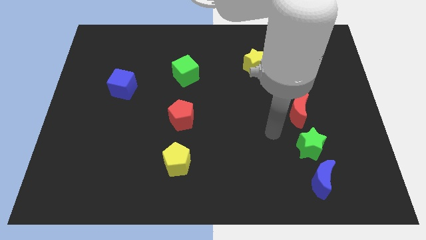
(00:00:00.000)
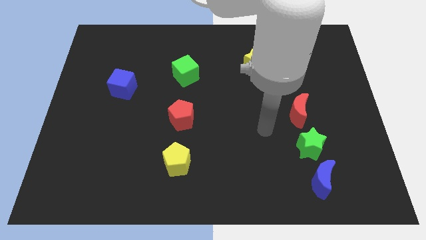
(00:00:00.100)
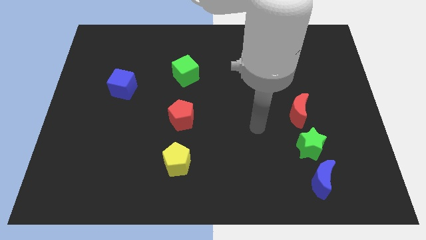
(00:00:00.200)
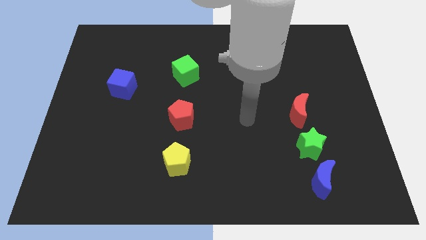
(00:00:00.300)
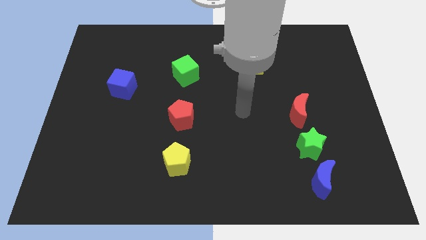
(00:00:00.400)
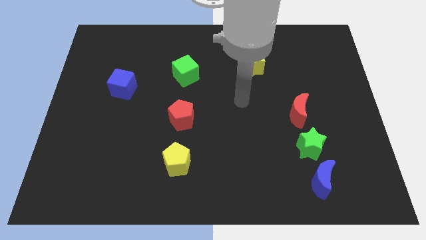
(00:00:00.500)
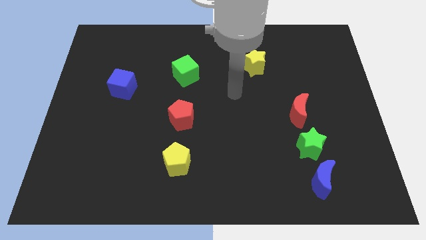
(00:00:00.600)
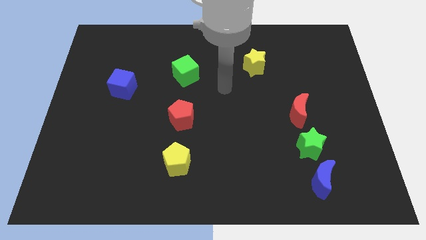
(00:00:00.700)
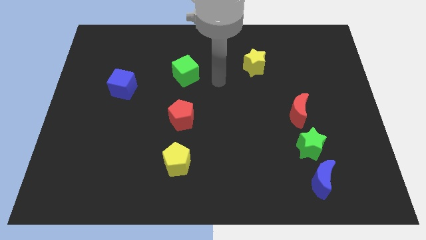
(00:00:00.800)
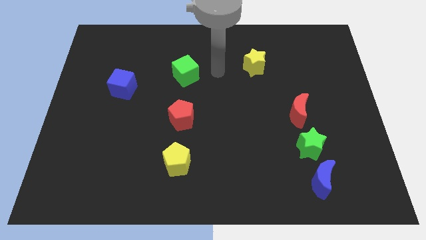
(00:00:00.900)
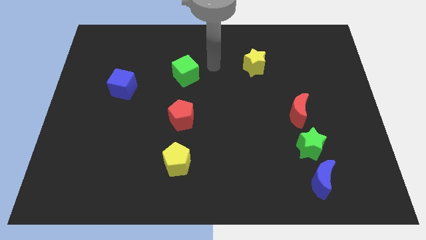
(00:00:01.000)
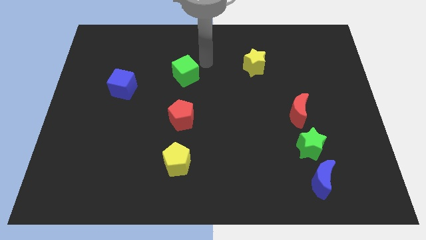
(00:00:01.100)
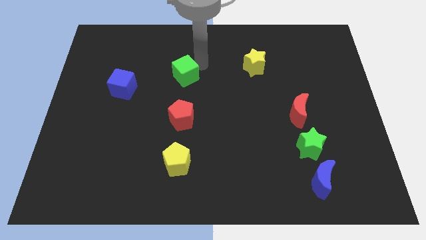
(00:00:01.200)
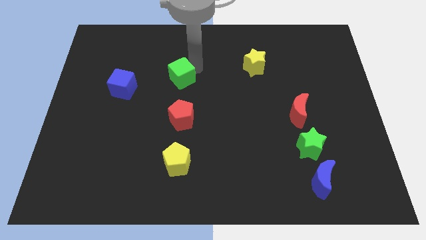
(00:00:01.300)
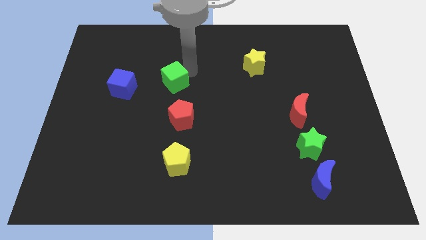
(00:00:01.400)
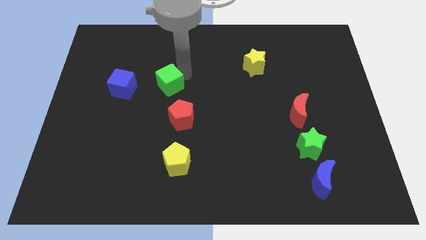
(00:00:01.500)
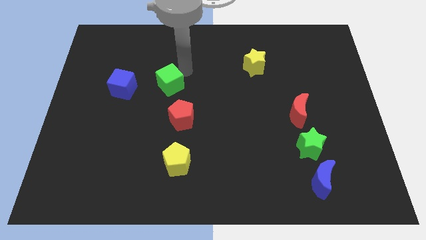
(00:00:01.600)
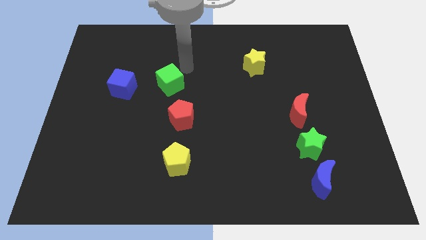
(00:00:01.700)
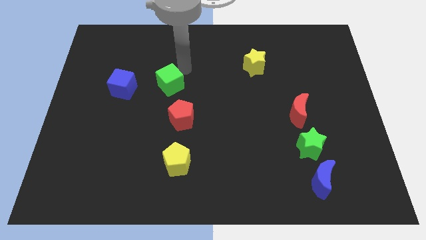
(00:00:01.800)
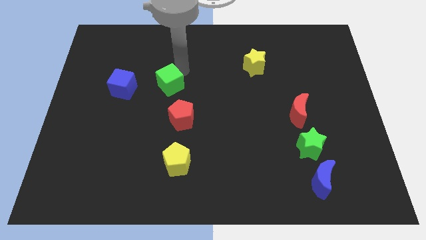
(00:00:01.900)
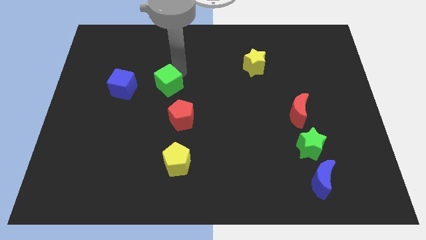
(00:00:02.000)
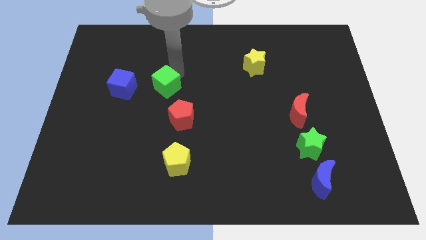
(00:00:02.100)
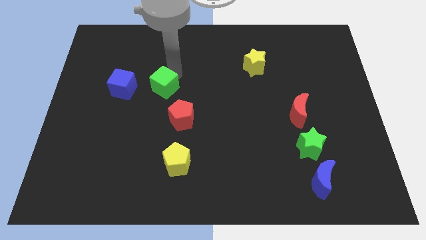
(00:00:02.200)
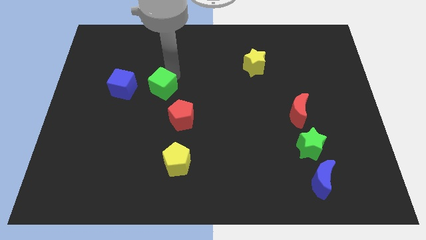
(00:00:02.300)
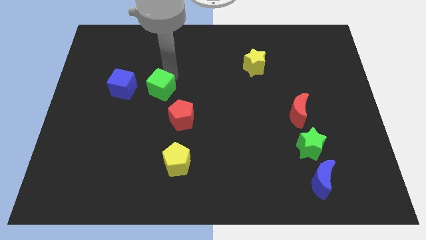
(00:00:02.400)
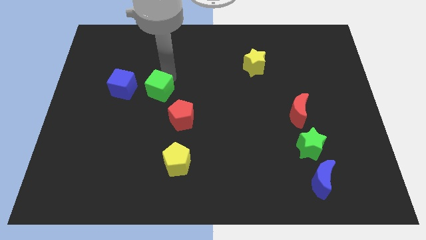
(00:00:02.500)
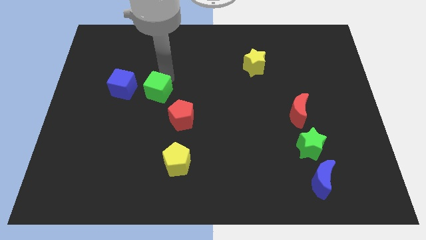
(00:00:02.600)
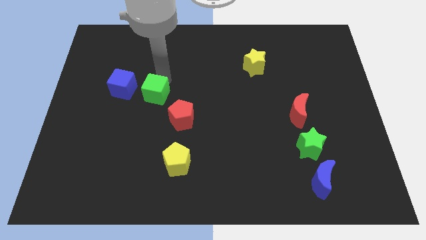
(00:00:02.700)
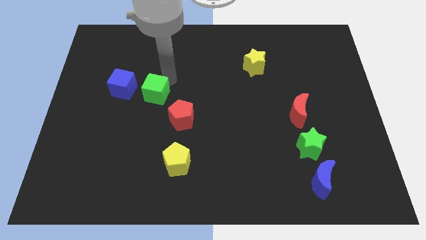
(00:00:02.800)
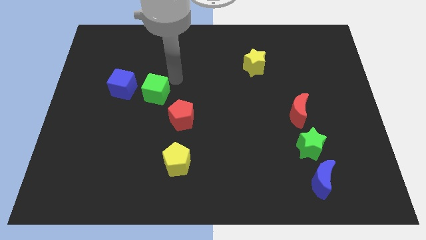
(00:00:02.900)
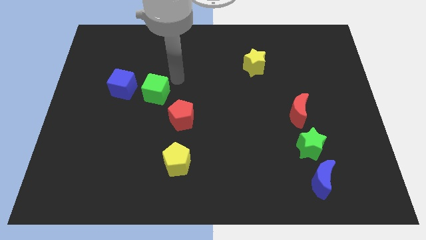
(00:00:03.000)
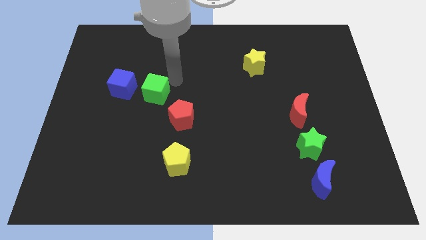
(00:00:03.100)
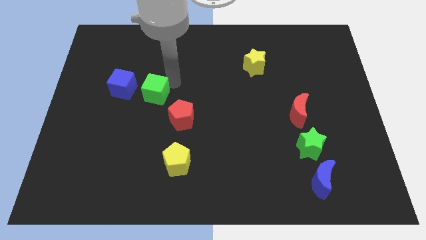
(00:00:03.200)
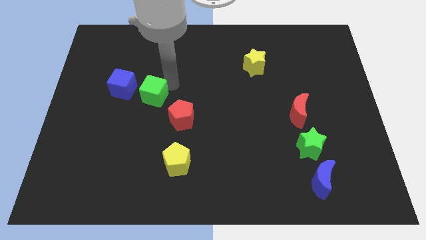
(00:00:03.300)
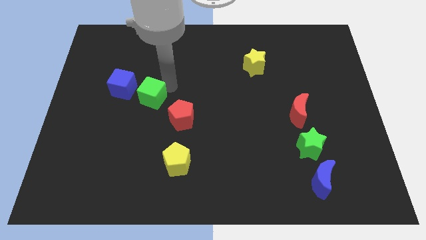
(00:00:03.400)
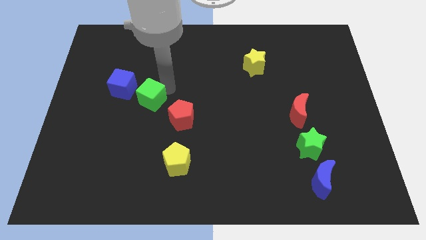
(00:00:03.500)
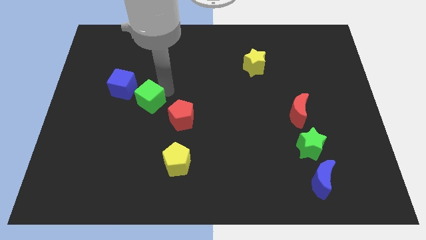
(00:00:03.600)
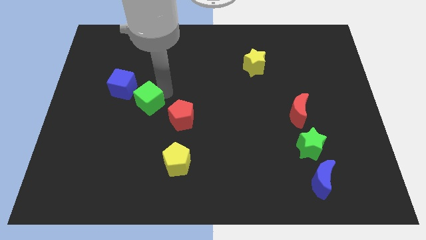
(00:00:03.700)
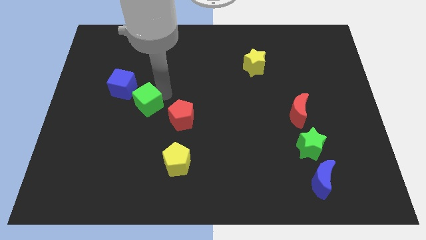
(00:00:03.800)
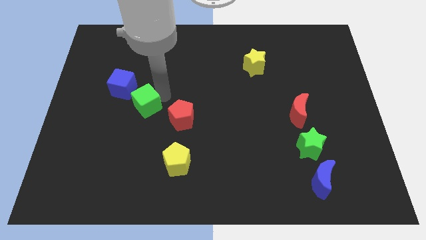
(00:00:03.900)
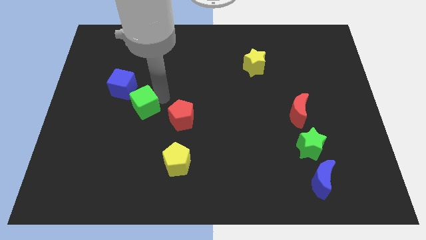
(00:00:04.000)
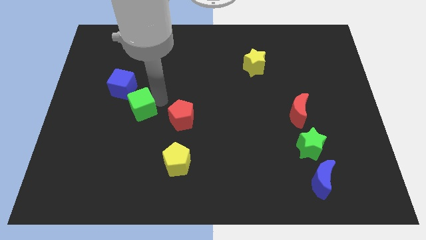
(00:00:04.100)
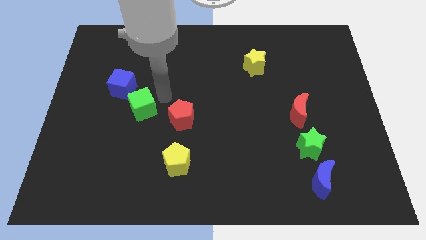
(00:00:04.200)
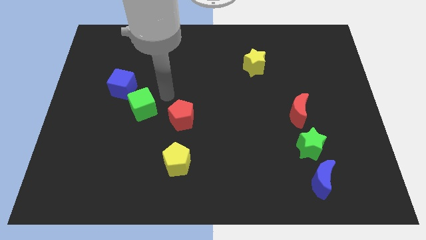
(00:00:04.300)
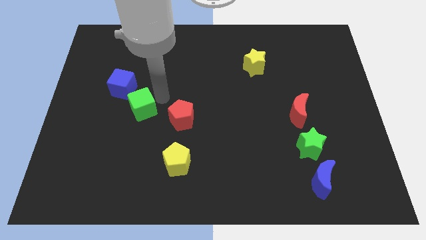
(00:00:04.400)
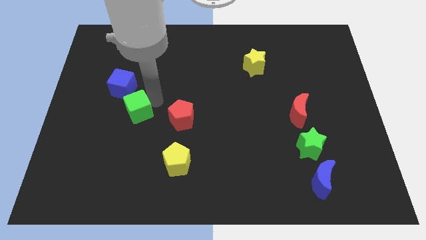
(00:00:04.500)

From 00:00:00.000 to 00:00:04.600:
put the green cube below the blue cube

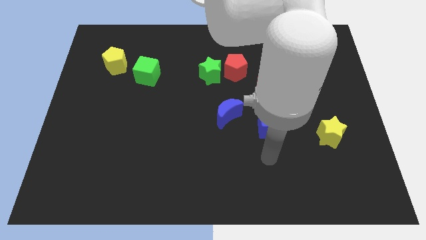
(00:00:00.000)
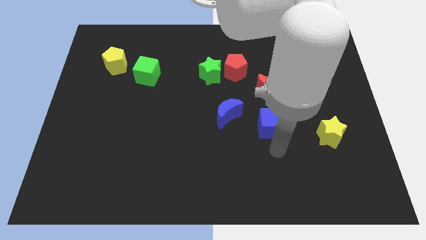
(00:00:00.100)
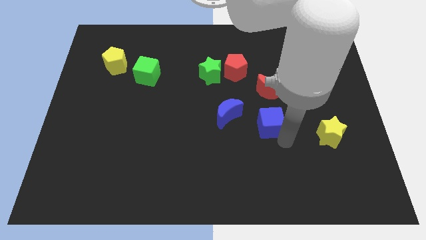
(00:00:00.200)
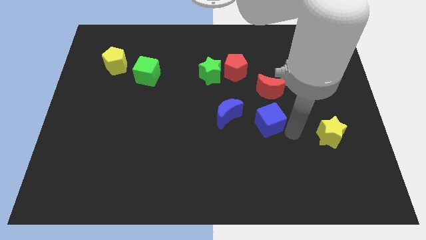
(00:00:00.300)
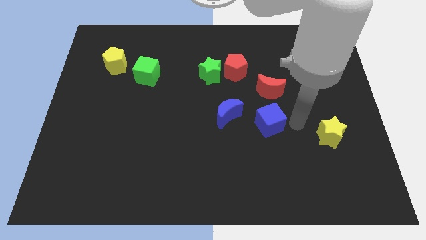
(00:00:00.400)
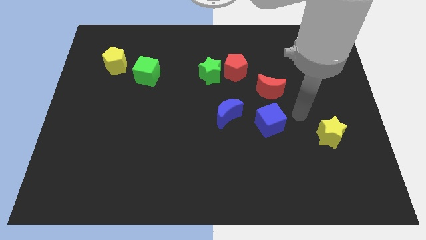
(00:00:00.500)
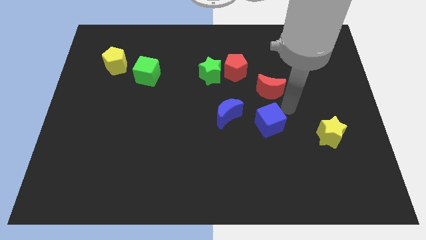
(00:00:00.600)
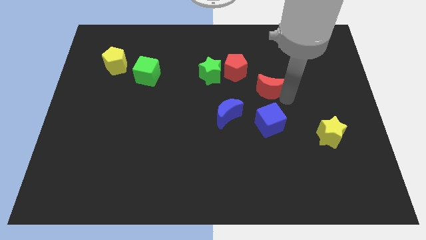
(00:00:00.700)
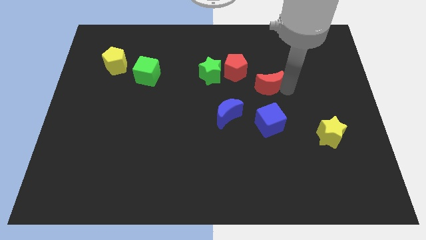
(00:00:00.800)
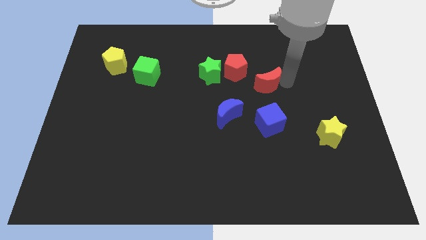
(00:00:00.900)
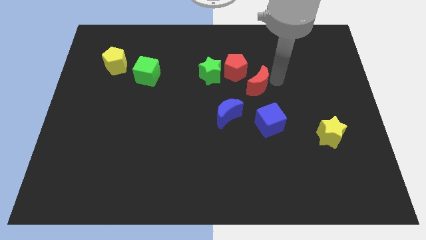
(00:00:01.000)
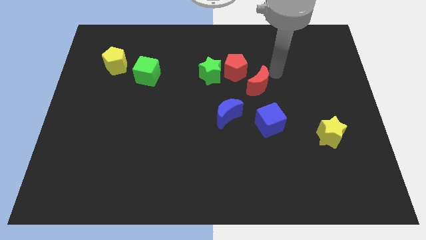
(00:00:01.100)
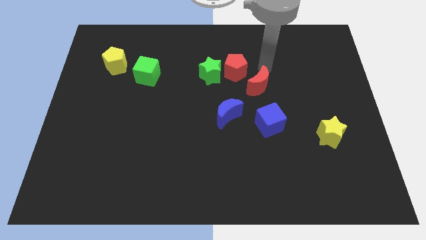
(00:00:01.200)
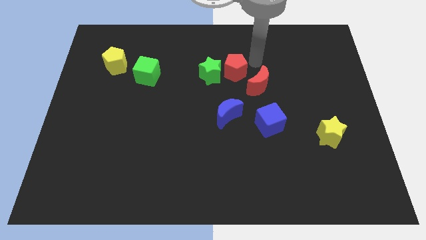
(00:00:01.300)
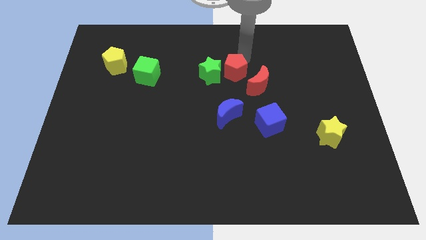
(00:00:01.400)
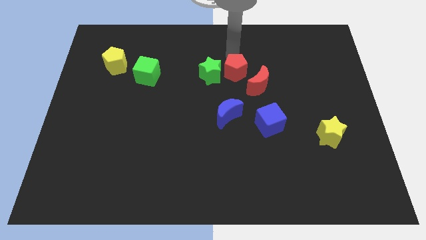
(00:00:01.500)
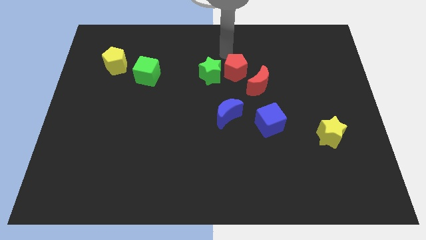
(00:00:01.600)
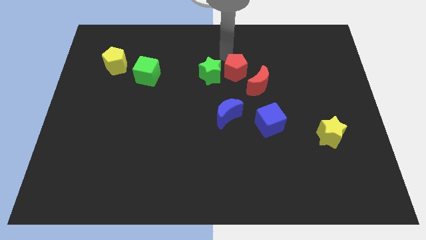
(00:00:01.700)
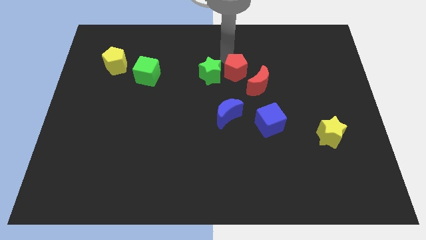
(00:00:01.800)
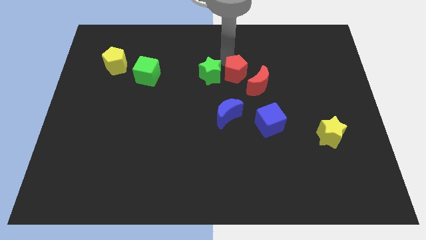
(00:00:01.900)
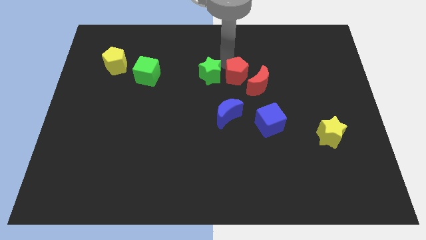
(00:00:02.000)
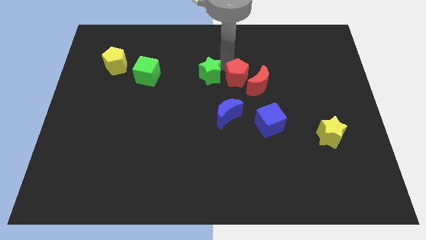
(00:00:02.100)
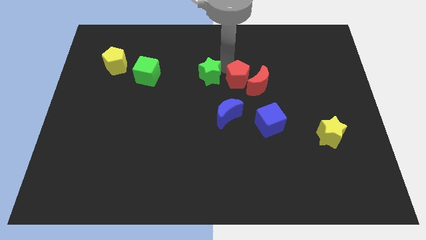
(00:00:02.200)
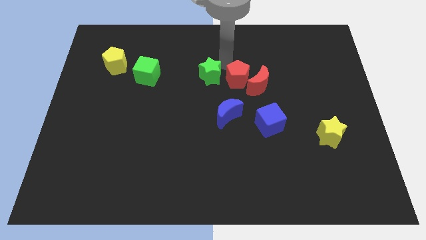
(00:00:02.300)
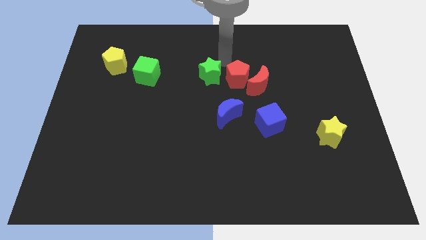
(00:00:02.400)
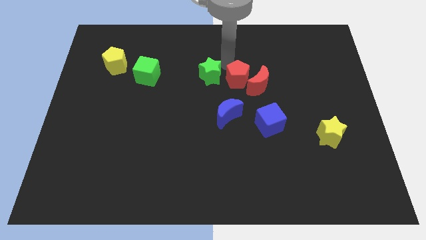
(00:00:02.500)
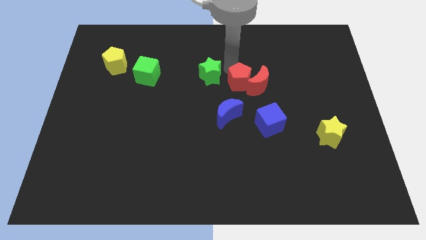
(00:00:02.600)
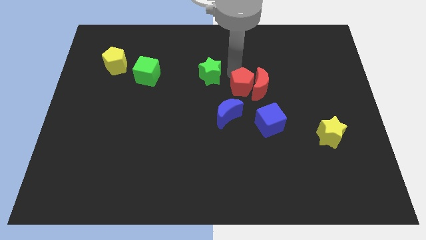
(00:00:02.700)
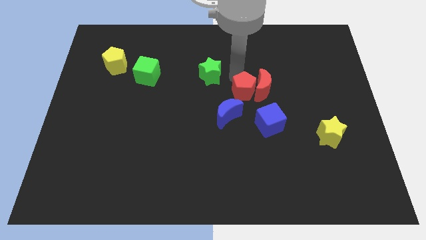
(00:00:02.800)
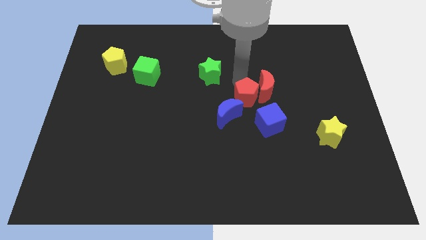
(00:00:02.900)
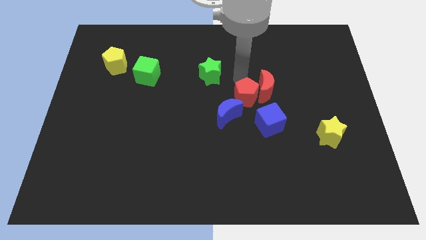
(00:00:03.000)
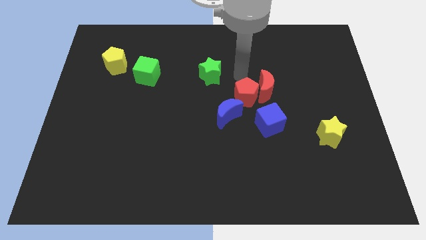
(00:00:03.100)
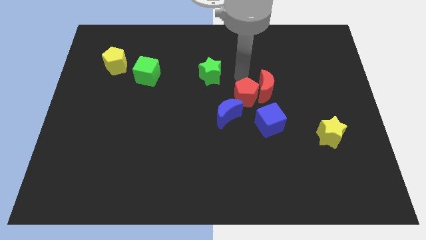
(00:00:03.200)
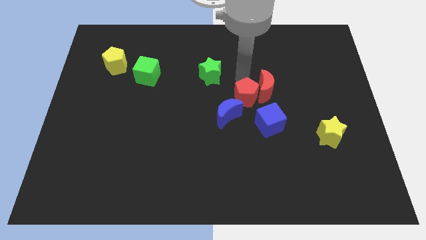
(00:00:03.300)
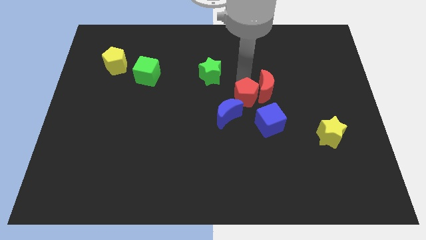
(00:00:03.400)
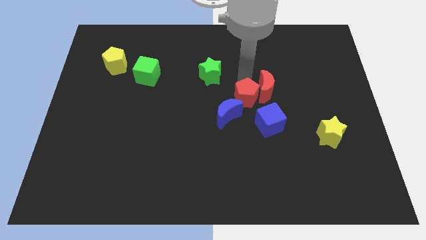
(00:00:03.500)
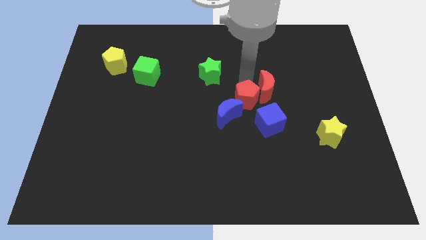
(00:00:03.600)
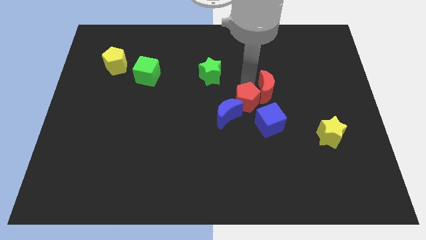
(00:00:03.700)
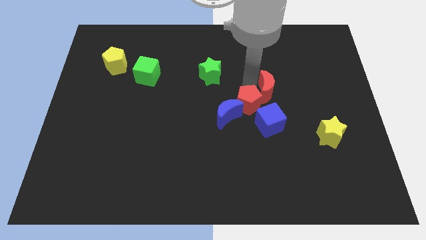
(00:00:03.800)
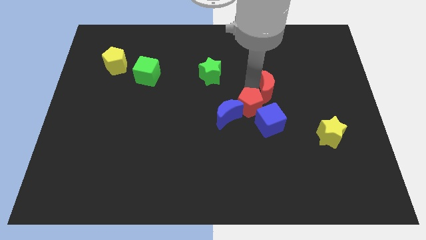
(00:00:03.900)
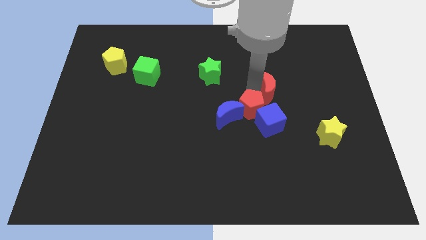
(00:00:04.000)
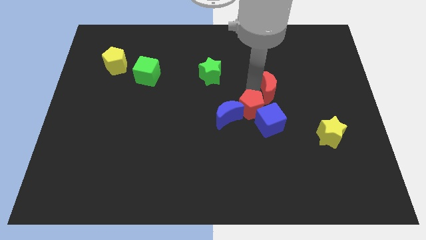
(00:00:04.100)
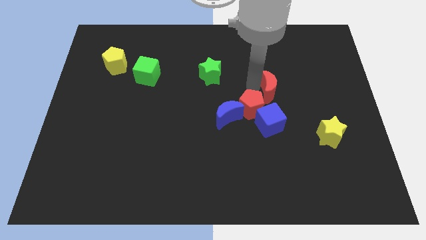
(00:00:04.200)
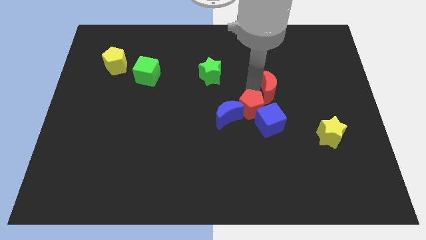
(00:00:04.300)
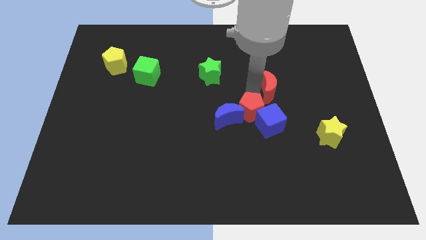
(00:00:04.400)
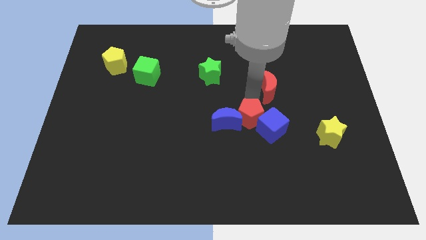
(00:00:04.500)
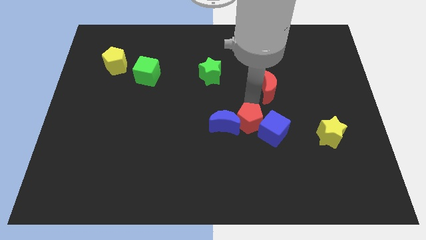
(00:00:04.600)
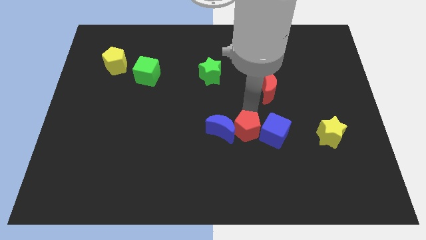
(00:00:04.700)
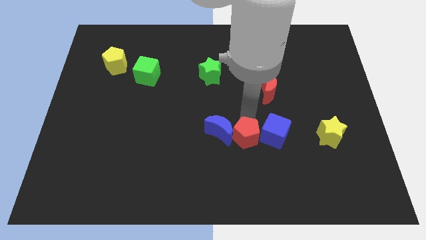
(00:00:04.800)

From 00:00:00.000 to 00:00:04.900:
put the red pentagon to the bottom left side of the blue cube
